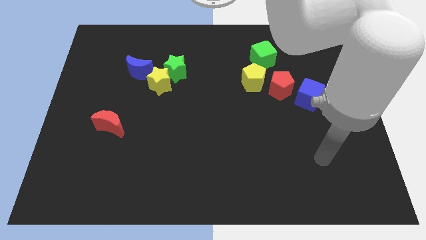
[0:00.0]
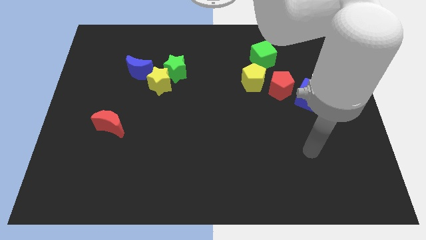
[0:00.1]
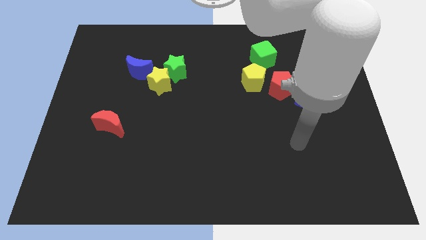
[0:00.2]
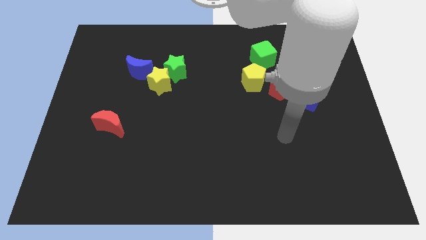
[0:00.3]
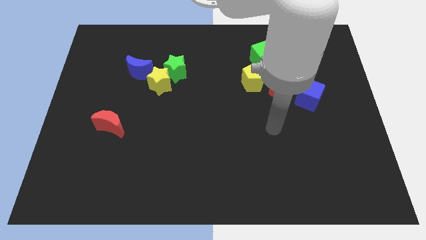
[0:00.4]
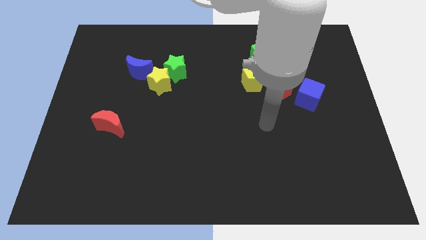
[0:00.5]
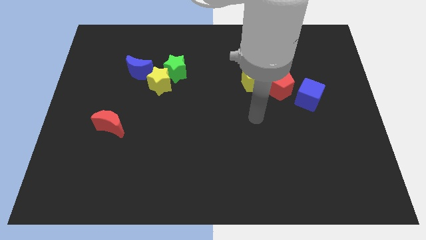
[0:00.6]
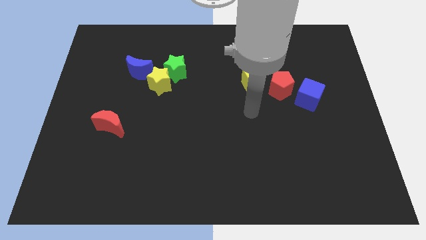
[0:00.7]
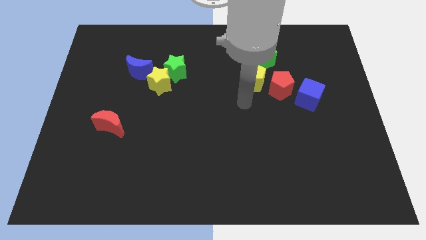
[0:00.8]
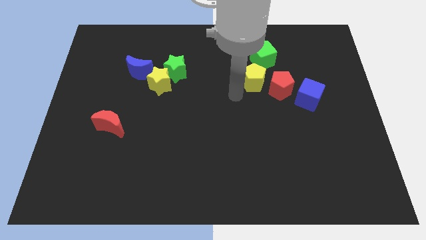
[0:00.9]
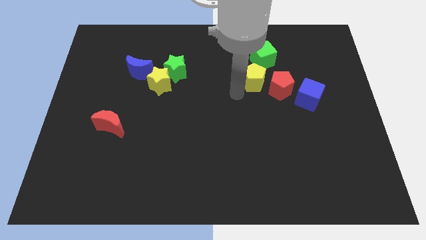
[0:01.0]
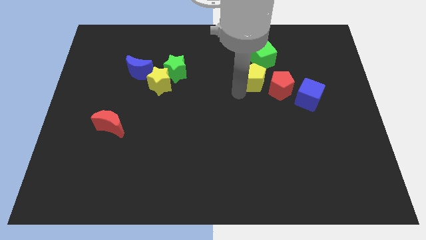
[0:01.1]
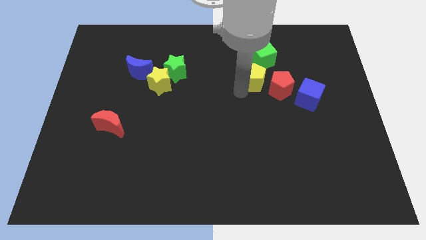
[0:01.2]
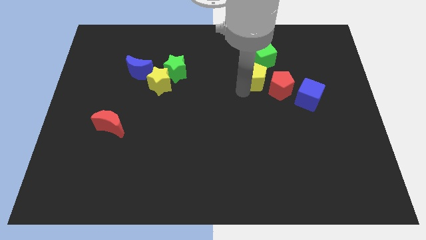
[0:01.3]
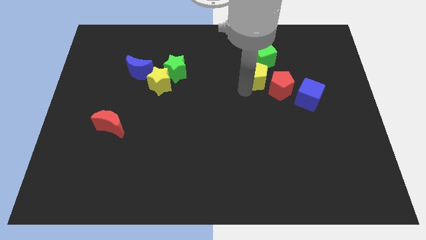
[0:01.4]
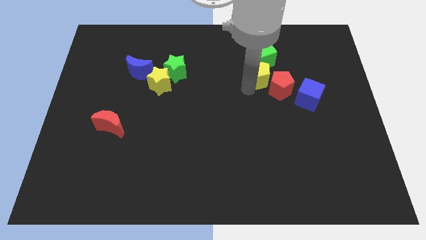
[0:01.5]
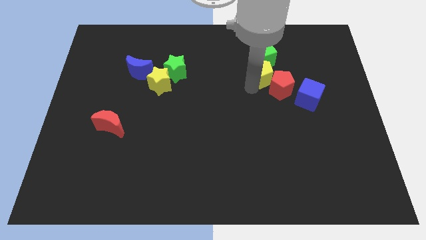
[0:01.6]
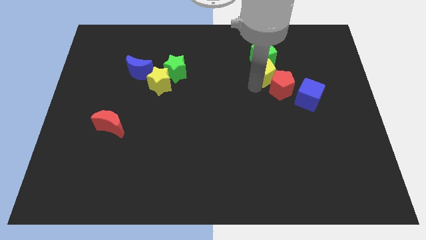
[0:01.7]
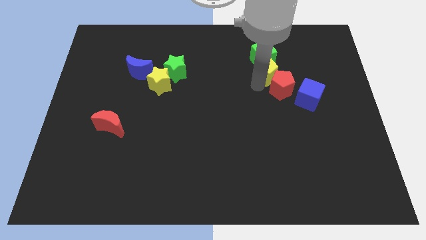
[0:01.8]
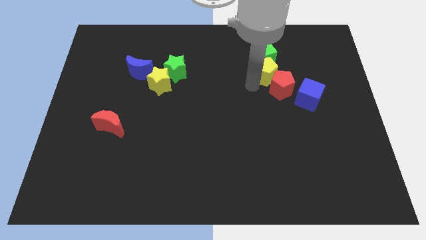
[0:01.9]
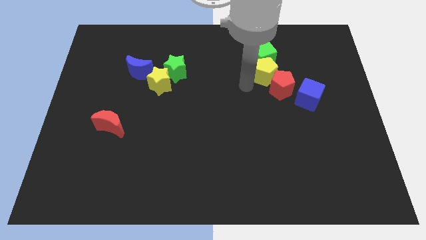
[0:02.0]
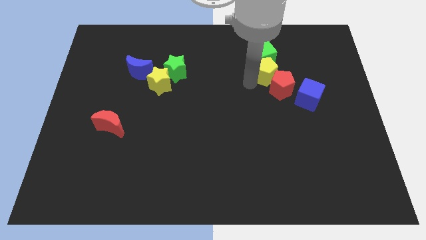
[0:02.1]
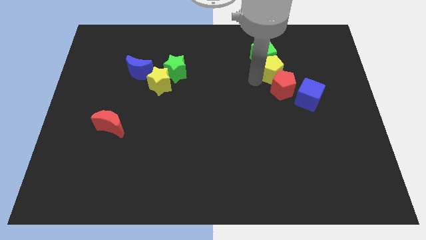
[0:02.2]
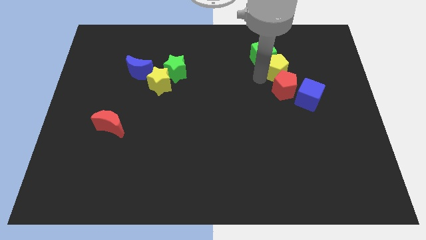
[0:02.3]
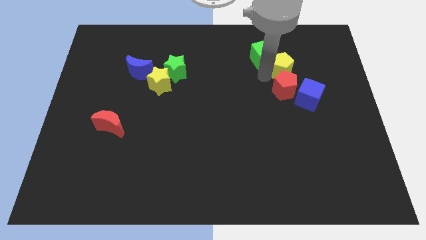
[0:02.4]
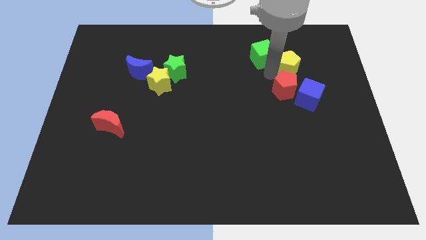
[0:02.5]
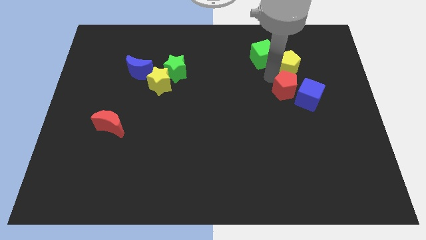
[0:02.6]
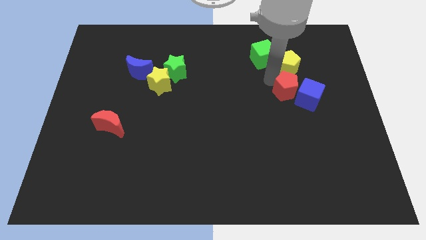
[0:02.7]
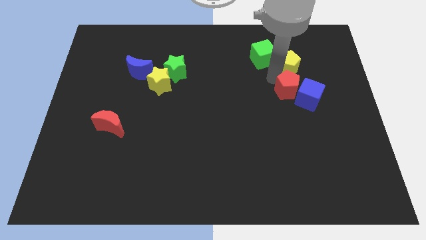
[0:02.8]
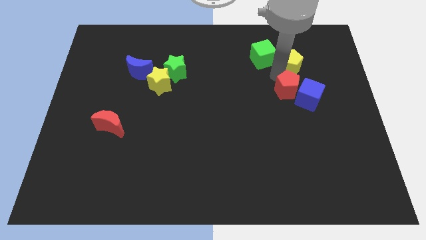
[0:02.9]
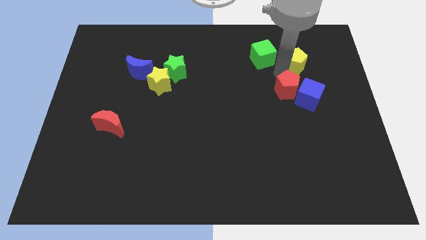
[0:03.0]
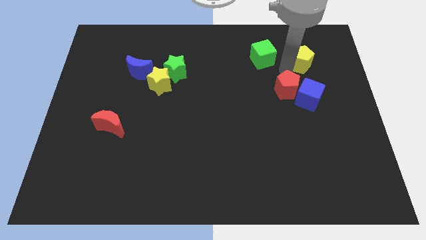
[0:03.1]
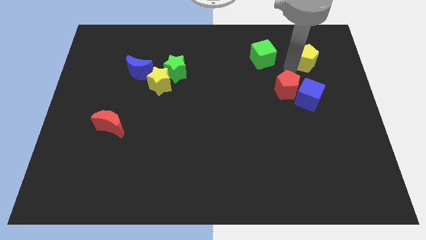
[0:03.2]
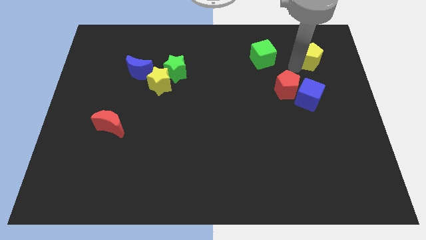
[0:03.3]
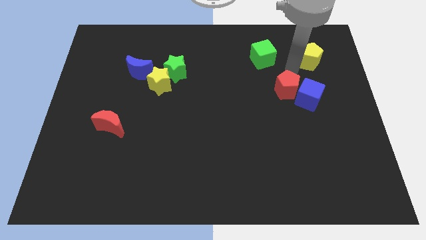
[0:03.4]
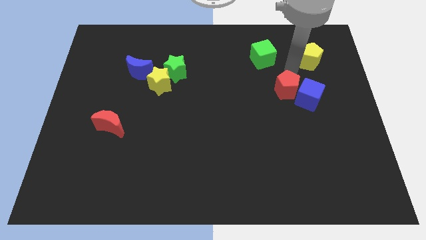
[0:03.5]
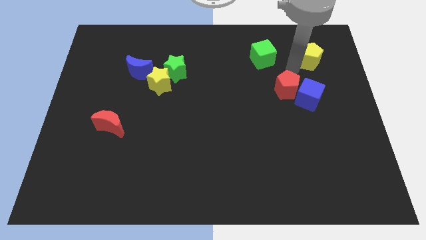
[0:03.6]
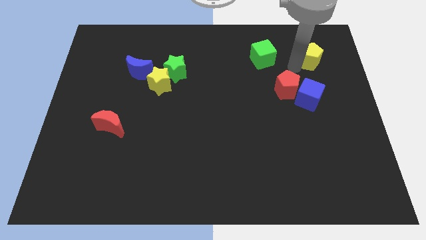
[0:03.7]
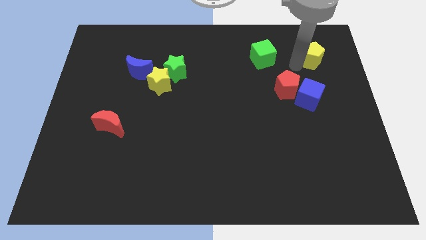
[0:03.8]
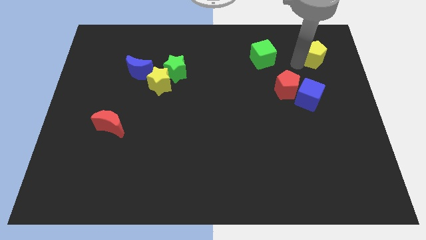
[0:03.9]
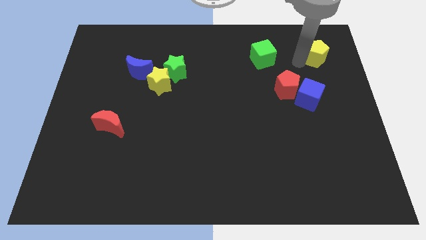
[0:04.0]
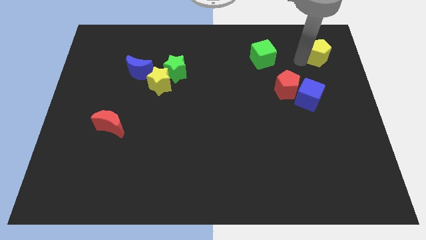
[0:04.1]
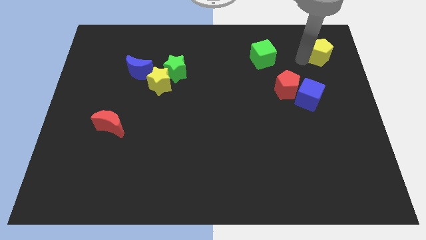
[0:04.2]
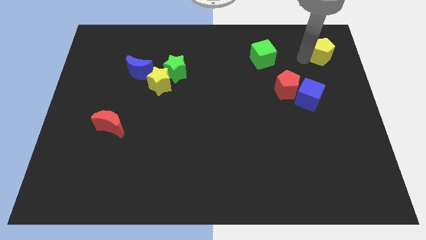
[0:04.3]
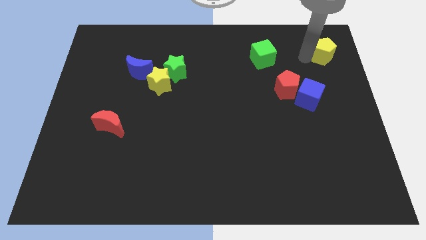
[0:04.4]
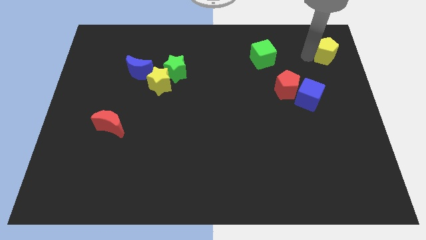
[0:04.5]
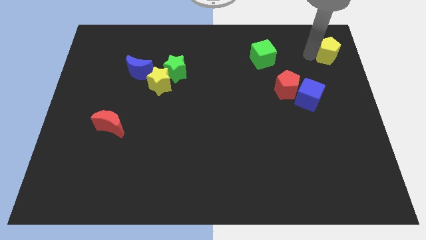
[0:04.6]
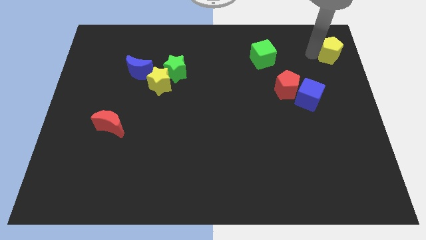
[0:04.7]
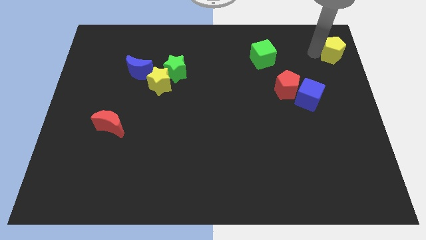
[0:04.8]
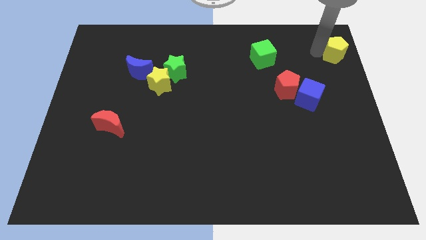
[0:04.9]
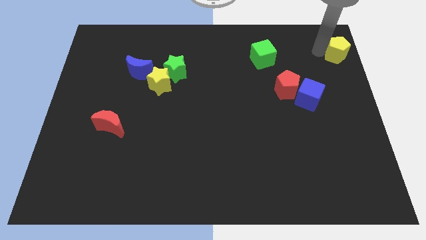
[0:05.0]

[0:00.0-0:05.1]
move the yellow pentagon to the top right corner

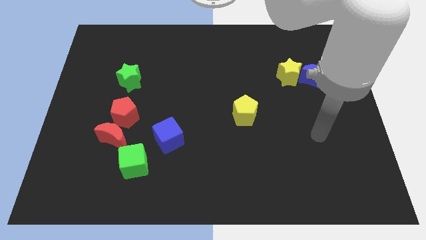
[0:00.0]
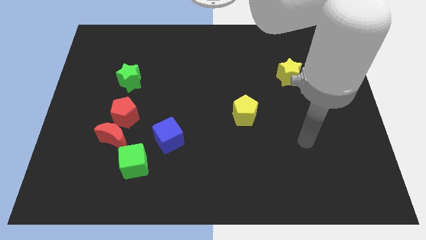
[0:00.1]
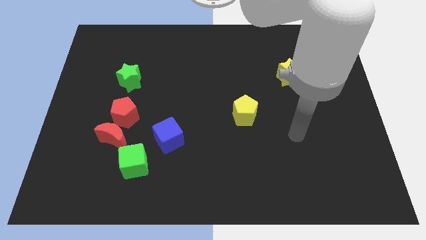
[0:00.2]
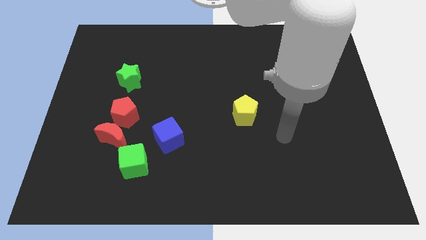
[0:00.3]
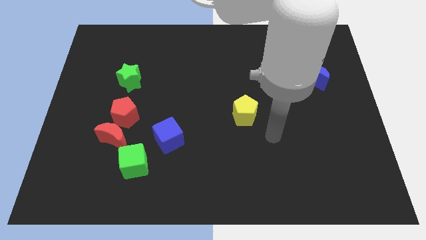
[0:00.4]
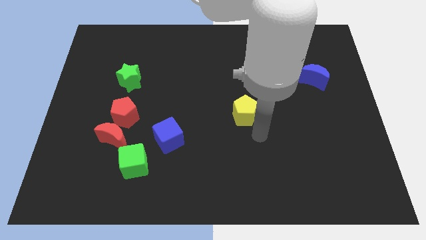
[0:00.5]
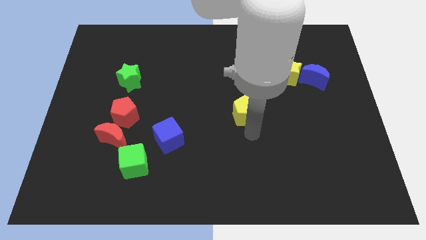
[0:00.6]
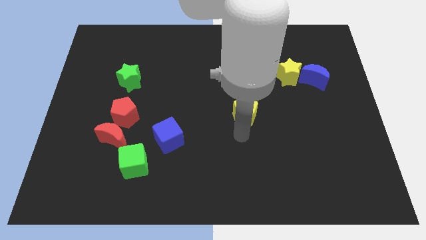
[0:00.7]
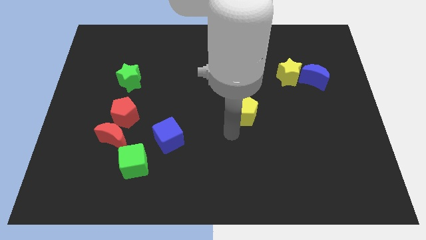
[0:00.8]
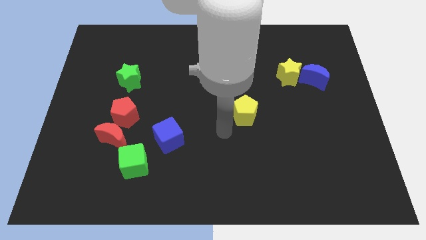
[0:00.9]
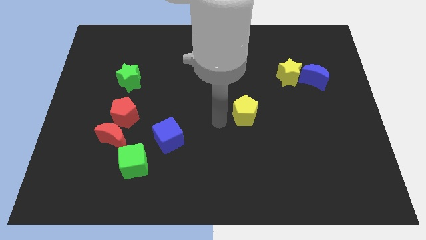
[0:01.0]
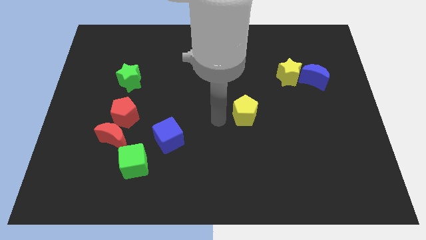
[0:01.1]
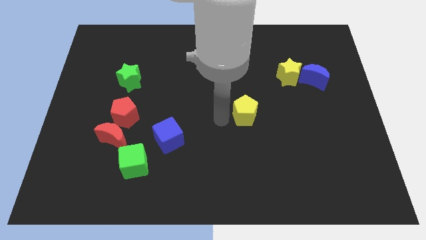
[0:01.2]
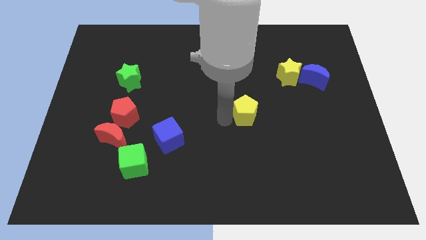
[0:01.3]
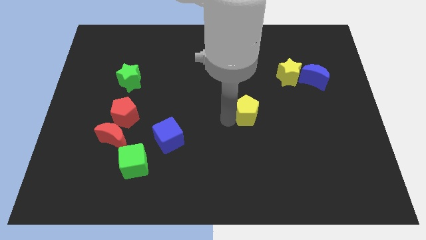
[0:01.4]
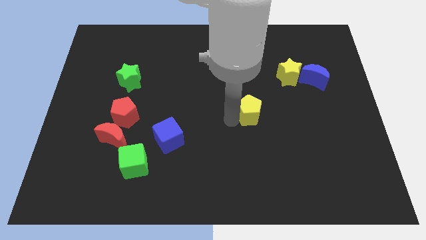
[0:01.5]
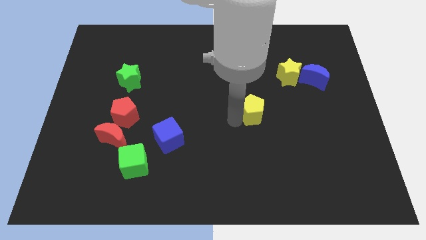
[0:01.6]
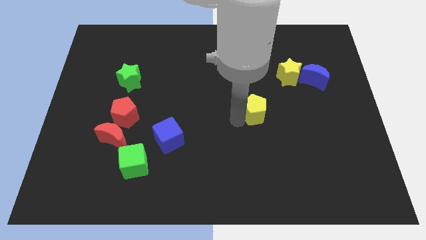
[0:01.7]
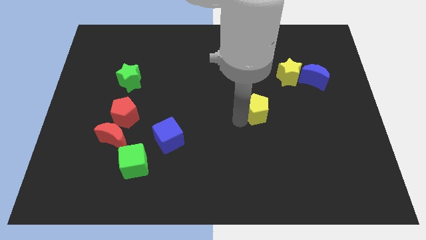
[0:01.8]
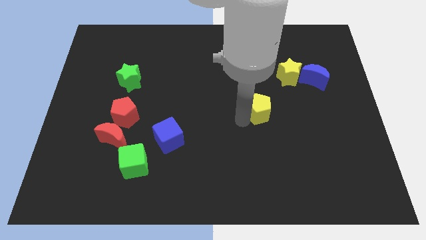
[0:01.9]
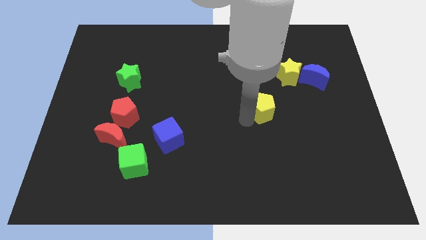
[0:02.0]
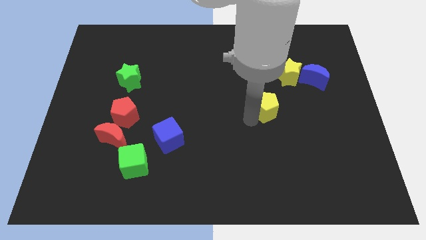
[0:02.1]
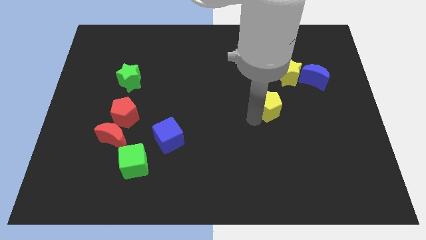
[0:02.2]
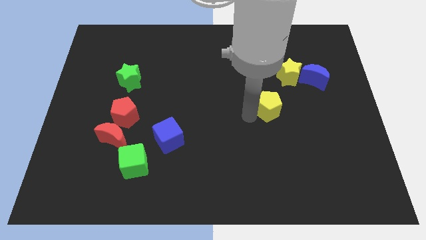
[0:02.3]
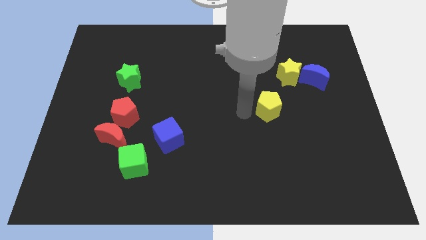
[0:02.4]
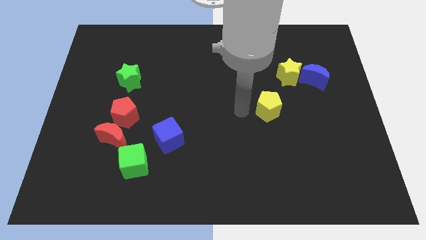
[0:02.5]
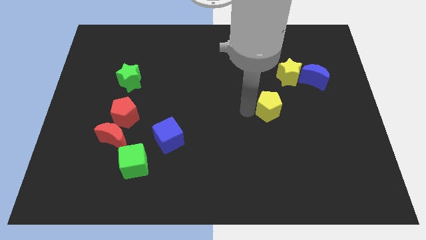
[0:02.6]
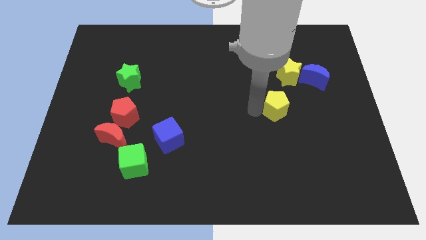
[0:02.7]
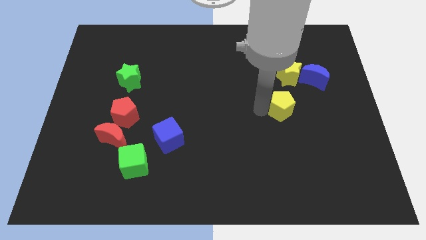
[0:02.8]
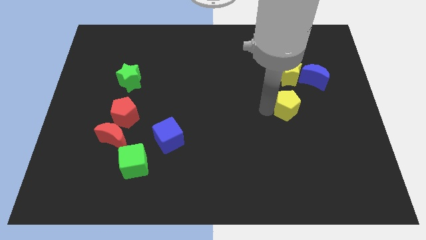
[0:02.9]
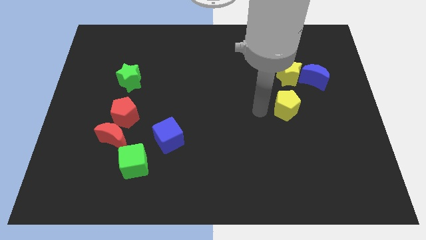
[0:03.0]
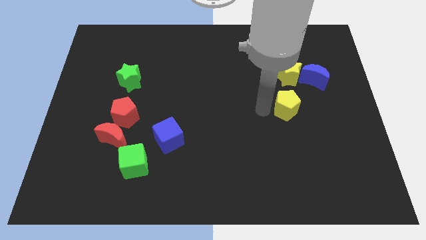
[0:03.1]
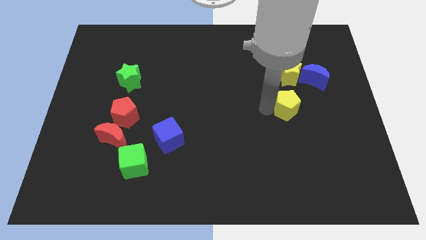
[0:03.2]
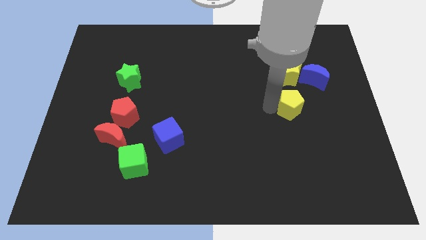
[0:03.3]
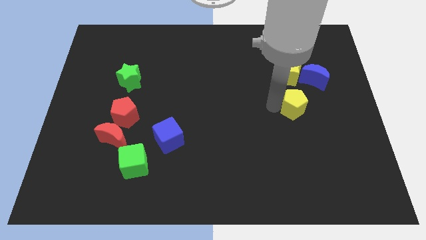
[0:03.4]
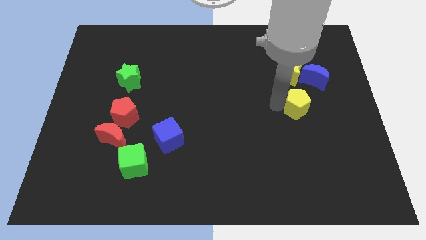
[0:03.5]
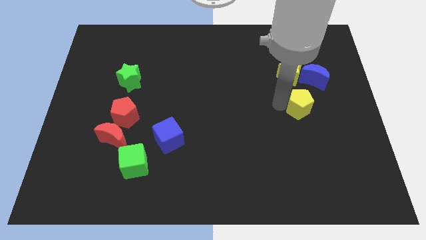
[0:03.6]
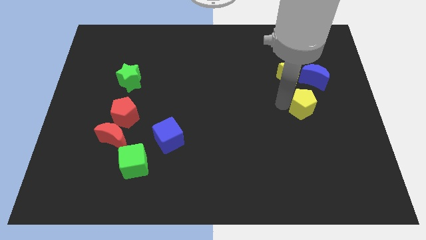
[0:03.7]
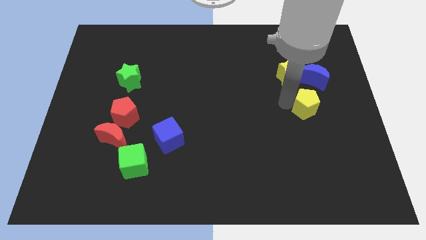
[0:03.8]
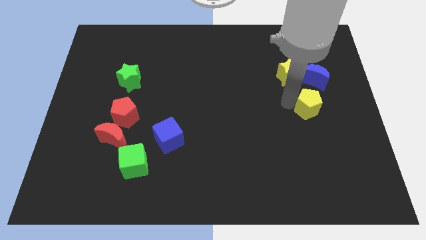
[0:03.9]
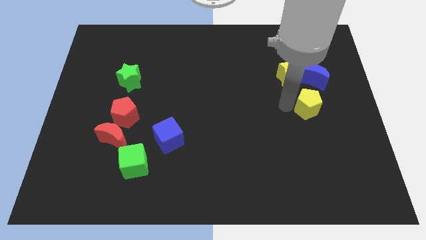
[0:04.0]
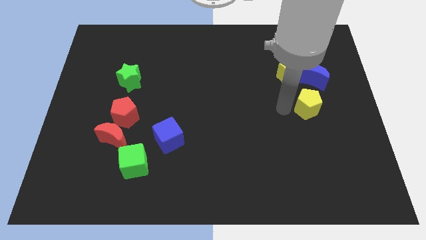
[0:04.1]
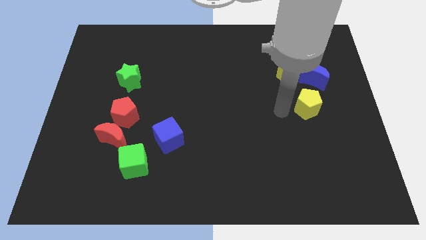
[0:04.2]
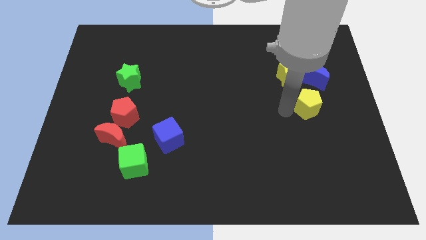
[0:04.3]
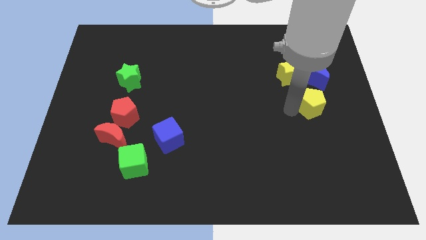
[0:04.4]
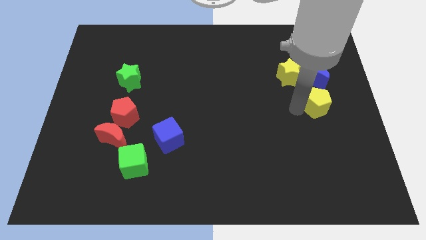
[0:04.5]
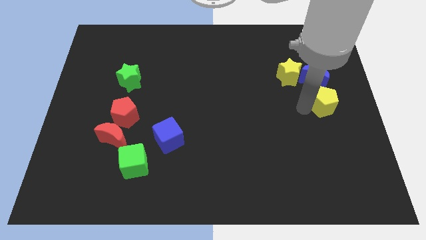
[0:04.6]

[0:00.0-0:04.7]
slide the yellow pentagon to the right side of the board
